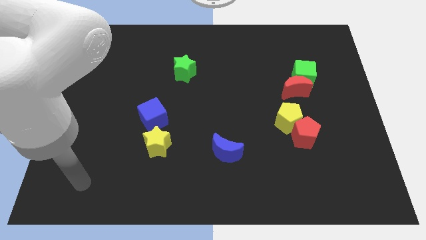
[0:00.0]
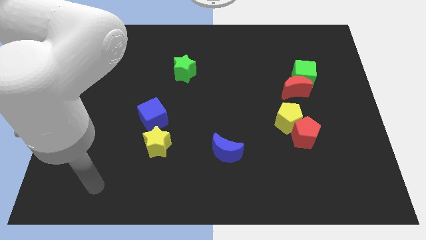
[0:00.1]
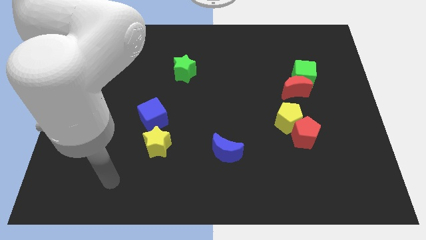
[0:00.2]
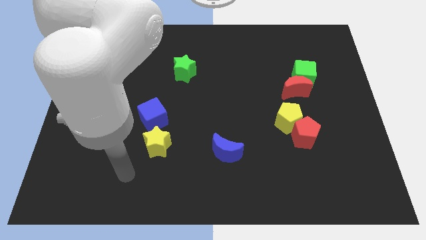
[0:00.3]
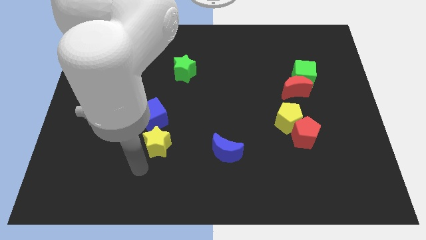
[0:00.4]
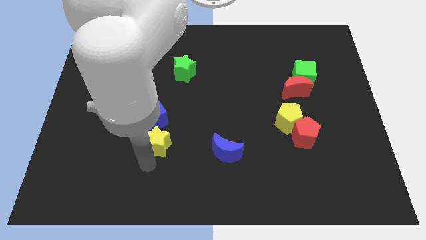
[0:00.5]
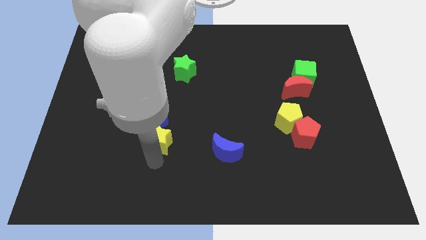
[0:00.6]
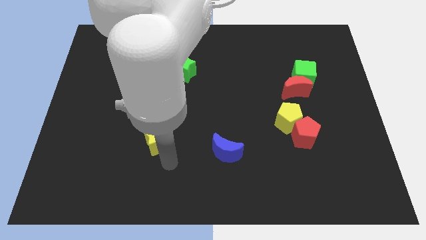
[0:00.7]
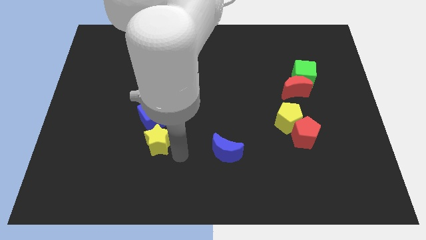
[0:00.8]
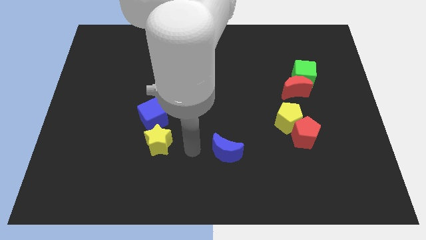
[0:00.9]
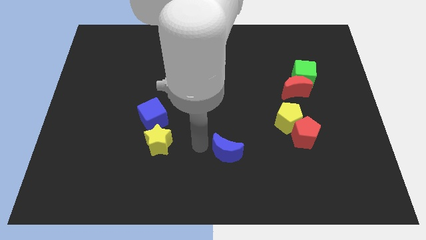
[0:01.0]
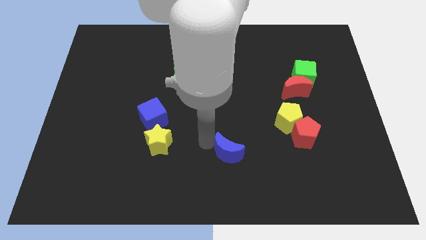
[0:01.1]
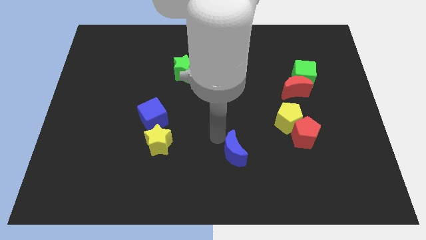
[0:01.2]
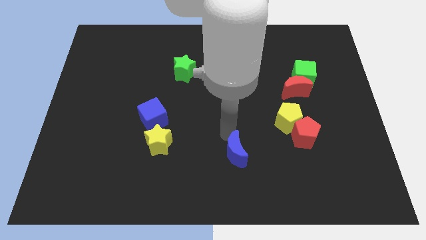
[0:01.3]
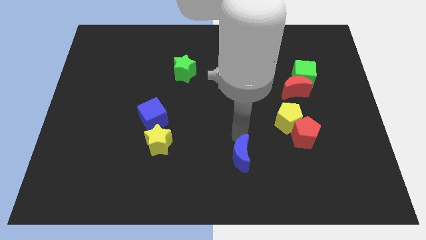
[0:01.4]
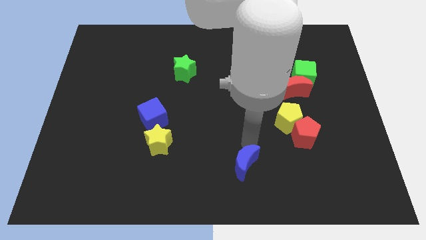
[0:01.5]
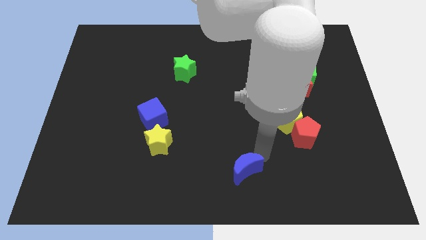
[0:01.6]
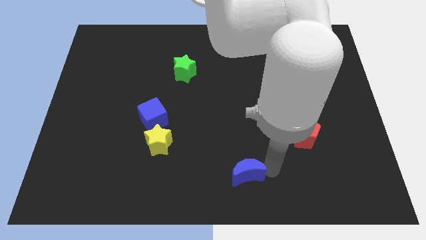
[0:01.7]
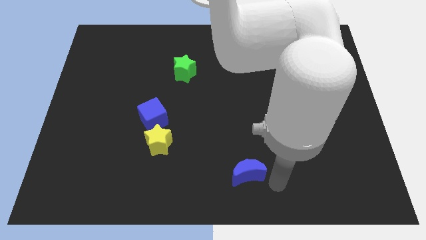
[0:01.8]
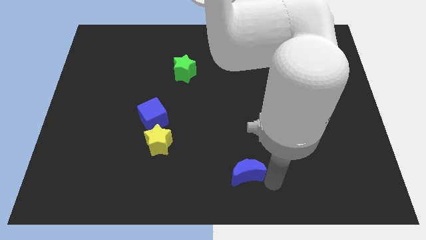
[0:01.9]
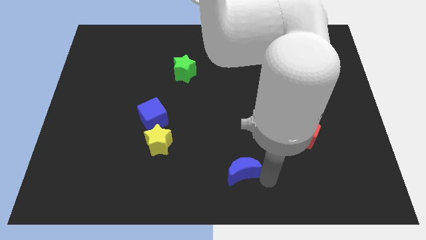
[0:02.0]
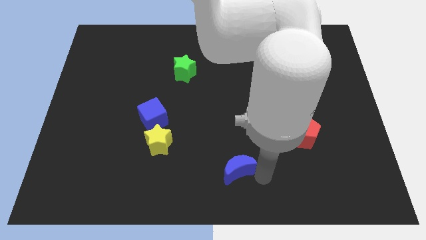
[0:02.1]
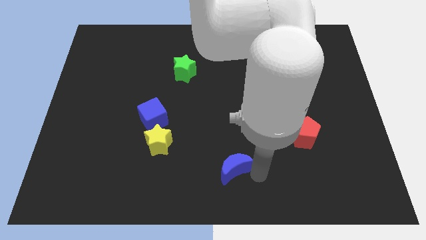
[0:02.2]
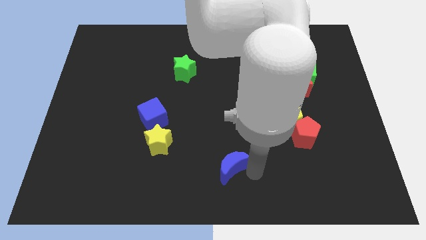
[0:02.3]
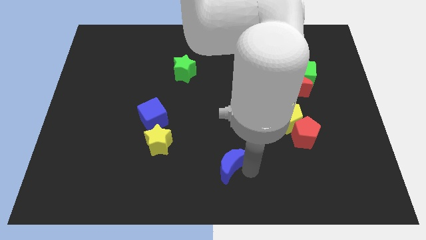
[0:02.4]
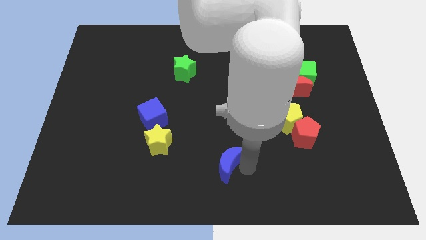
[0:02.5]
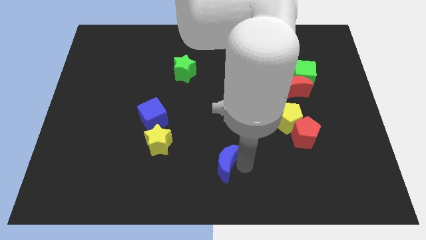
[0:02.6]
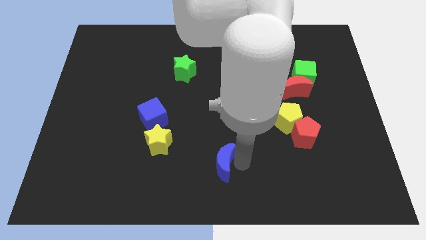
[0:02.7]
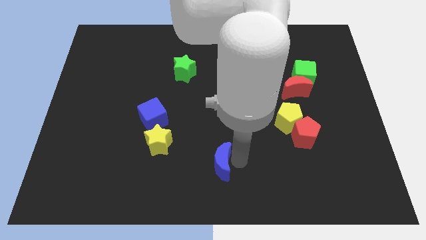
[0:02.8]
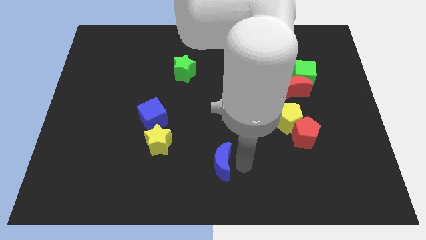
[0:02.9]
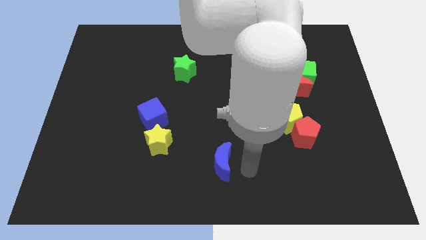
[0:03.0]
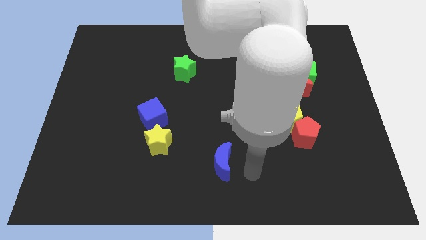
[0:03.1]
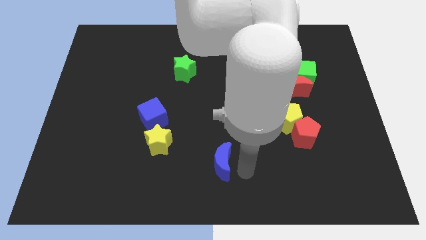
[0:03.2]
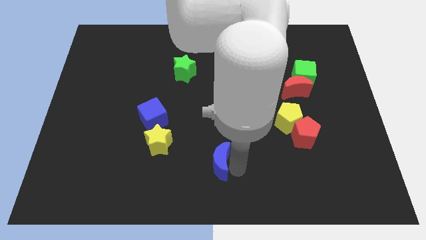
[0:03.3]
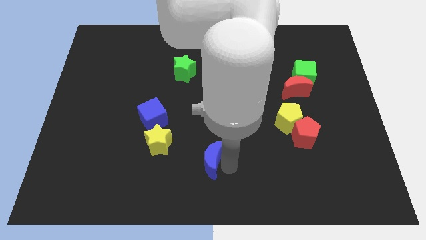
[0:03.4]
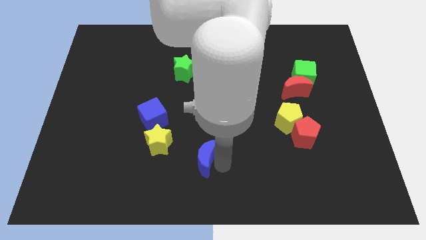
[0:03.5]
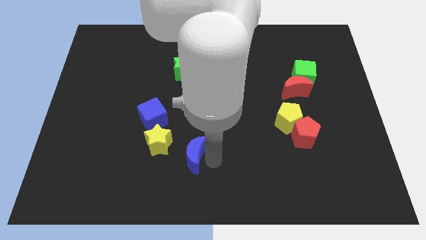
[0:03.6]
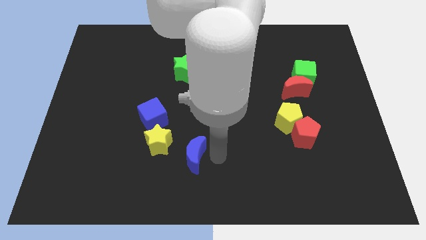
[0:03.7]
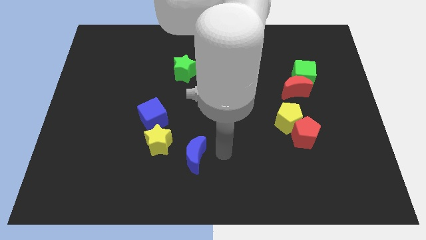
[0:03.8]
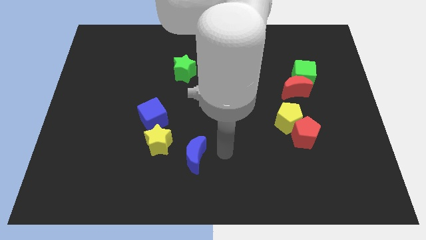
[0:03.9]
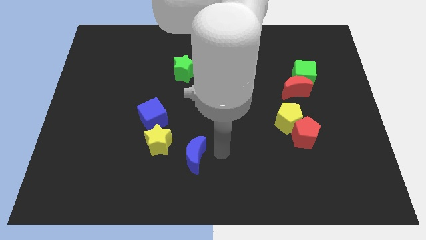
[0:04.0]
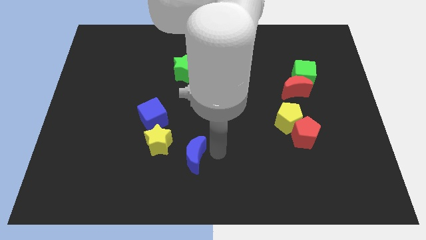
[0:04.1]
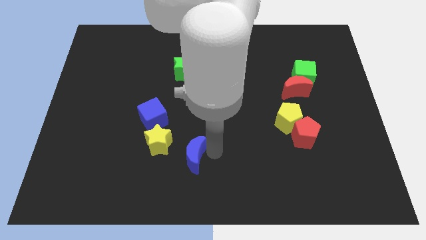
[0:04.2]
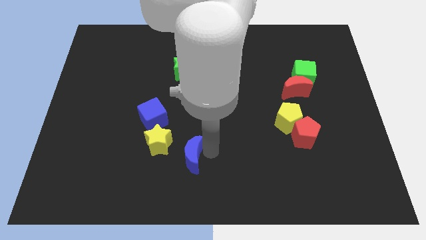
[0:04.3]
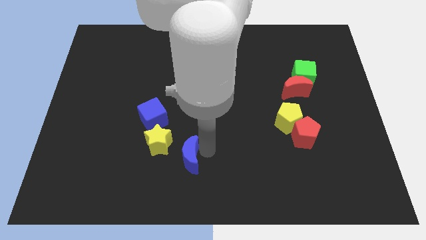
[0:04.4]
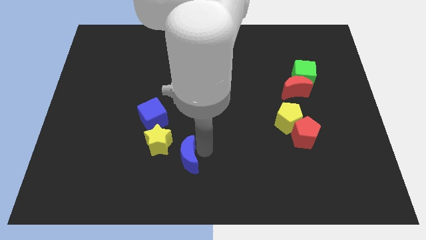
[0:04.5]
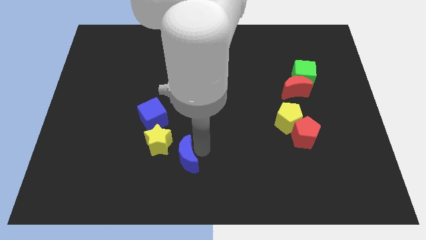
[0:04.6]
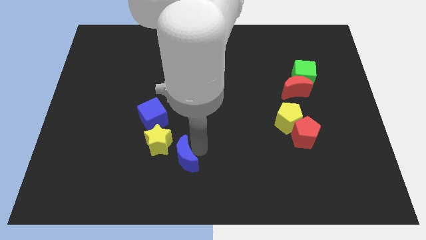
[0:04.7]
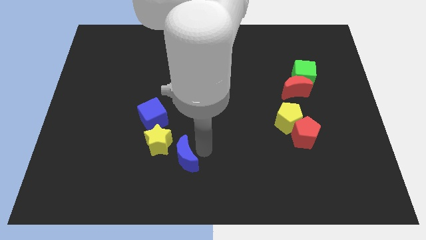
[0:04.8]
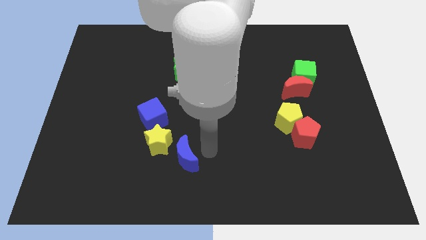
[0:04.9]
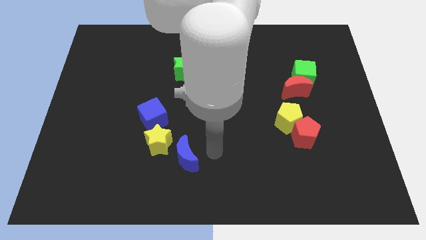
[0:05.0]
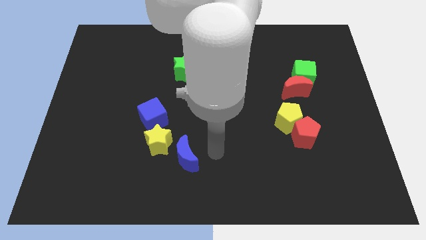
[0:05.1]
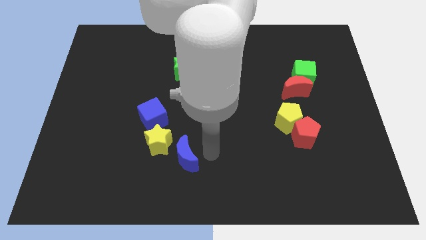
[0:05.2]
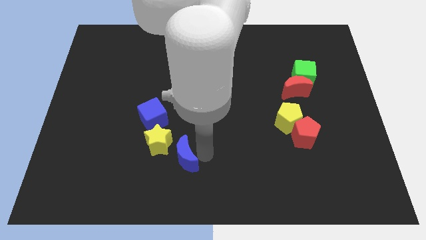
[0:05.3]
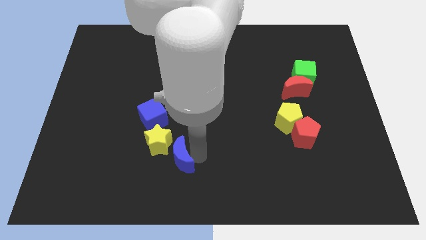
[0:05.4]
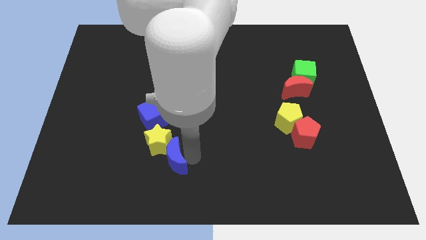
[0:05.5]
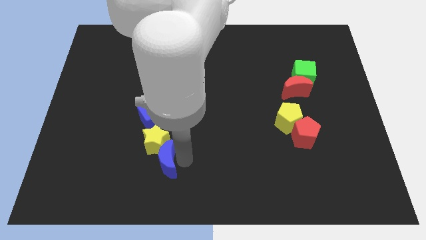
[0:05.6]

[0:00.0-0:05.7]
move the blue moon to the bottom side of the blue cube

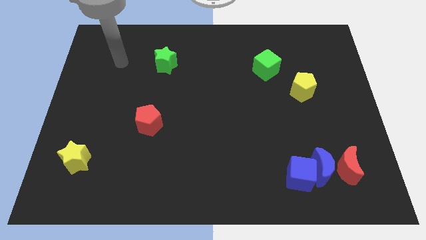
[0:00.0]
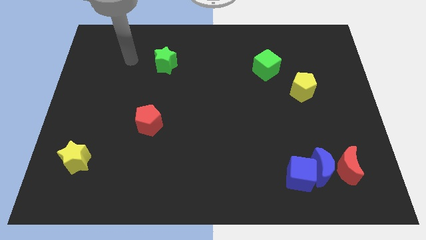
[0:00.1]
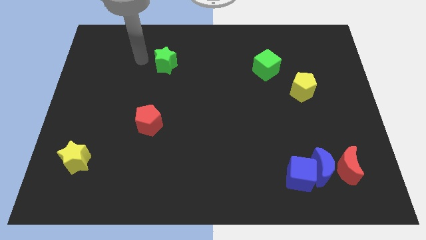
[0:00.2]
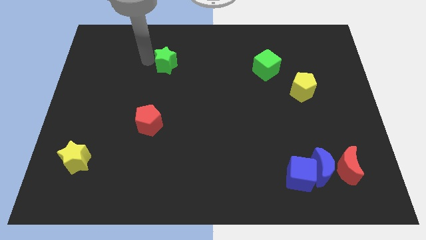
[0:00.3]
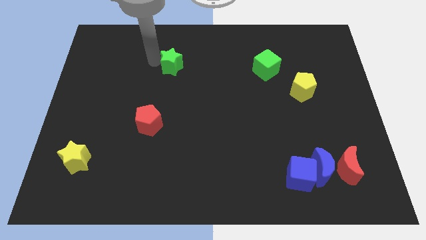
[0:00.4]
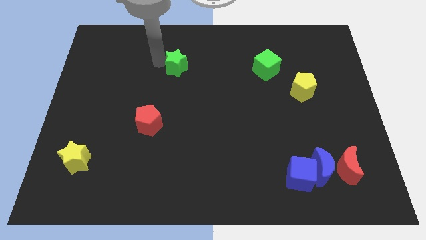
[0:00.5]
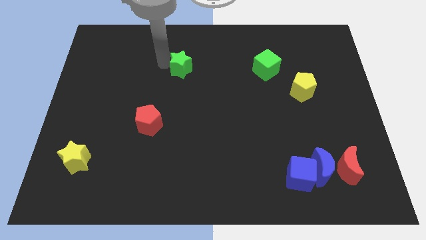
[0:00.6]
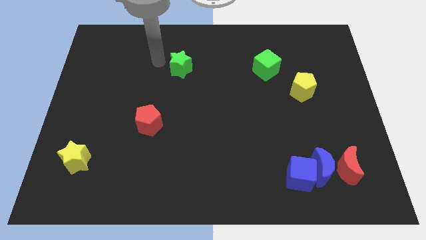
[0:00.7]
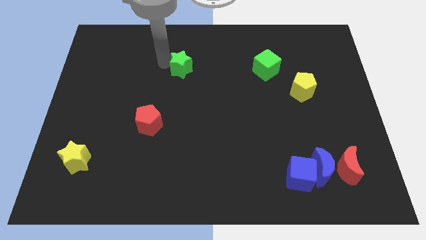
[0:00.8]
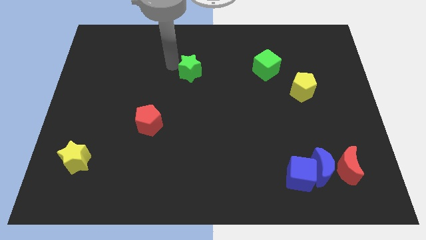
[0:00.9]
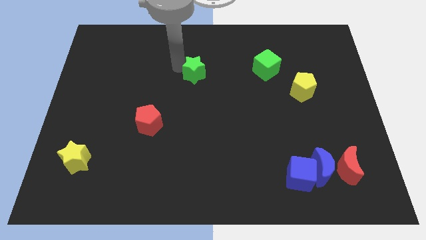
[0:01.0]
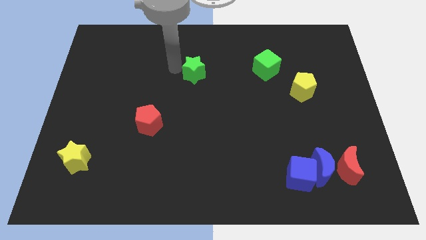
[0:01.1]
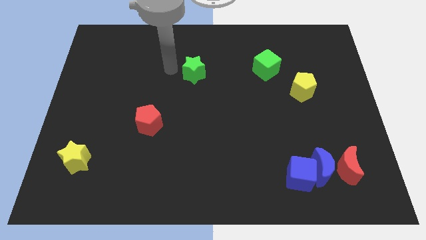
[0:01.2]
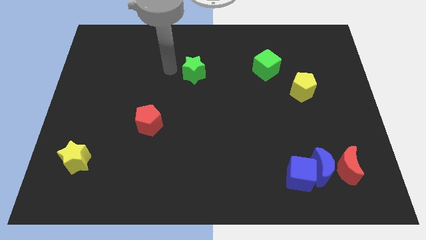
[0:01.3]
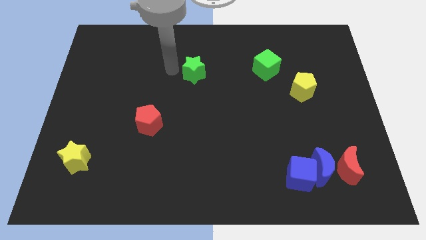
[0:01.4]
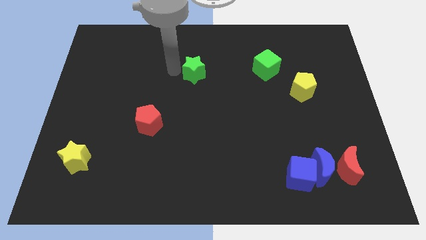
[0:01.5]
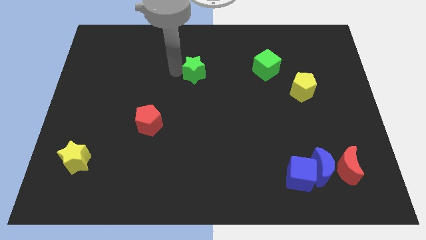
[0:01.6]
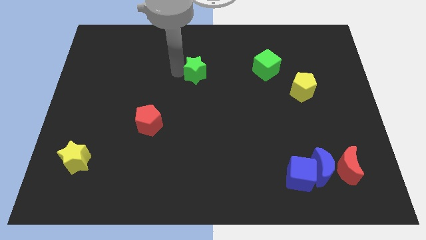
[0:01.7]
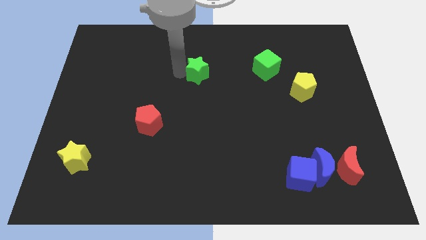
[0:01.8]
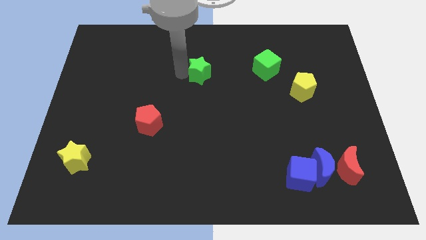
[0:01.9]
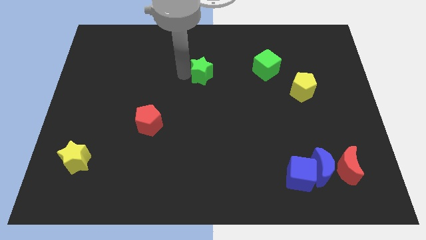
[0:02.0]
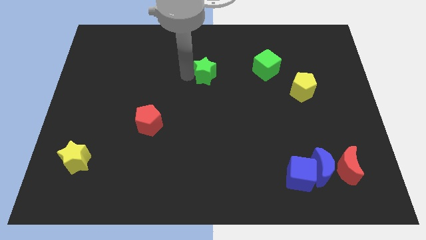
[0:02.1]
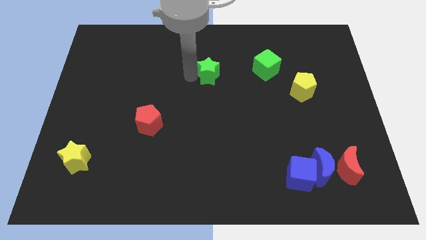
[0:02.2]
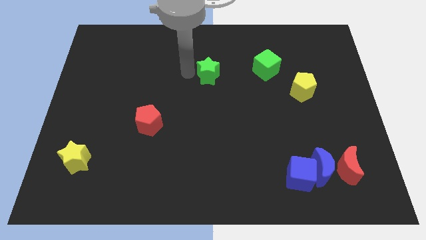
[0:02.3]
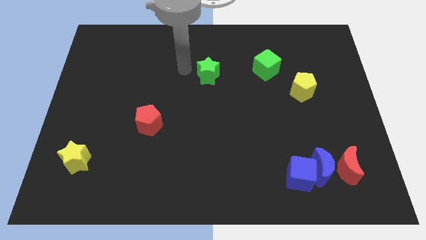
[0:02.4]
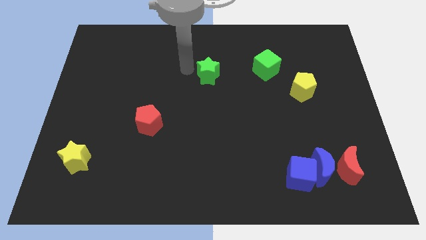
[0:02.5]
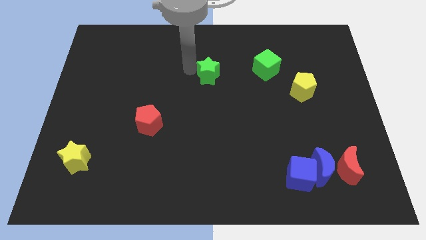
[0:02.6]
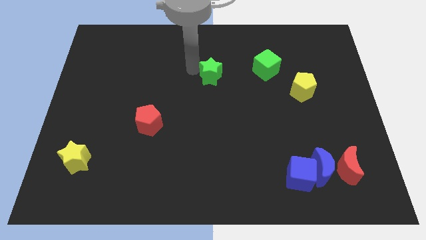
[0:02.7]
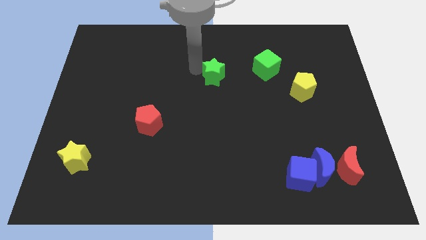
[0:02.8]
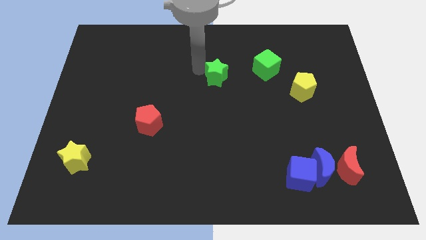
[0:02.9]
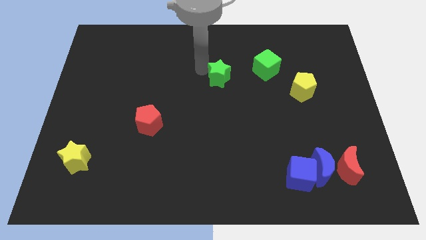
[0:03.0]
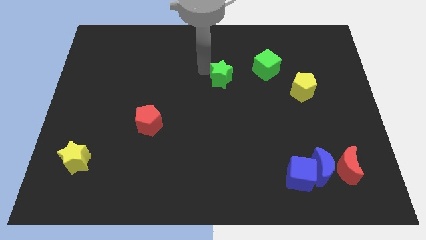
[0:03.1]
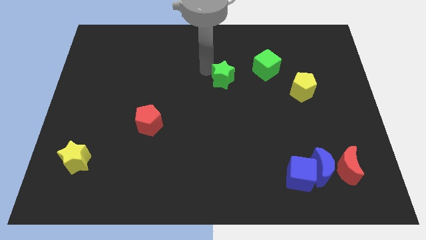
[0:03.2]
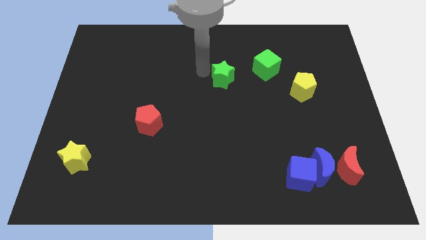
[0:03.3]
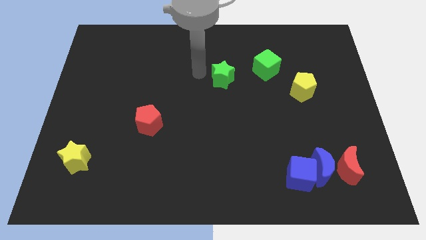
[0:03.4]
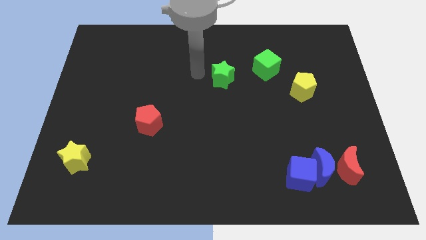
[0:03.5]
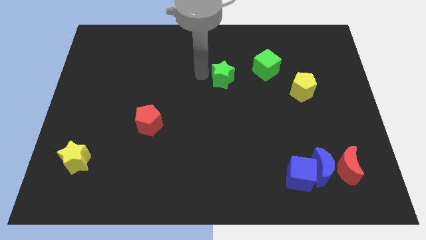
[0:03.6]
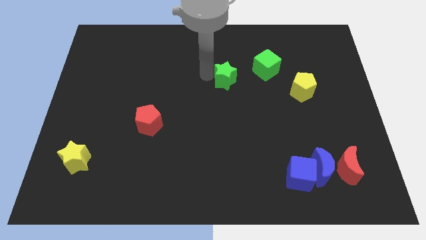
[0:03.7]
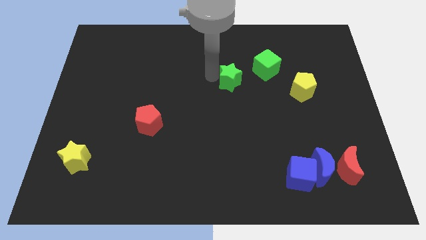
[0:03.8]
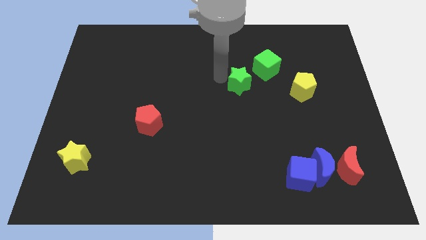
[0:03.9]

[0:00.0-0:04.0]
put the green star just left of the yellow pentagon
